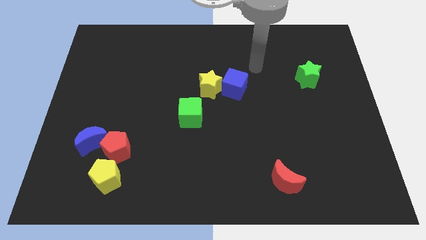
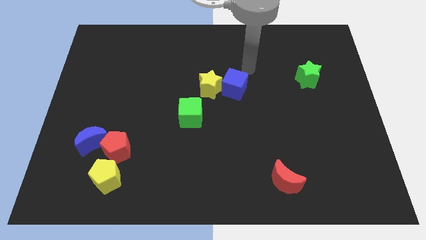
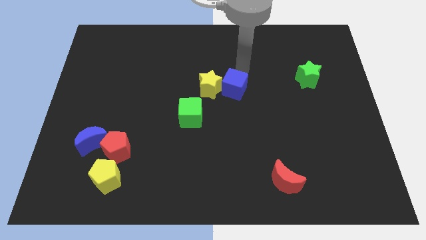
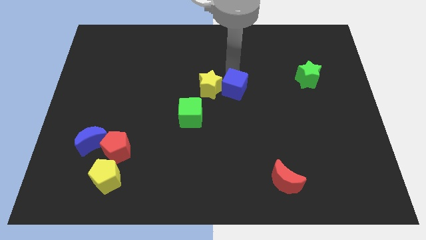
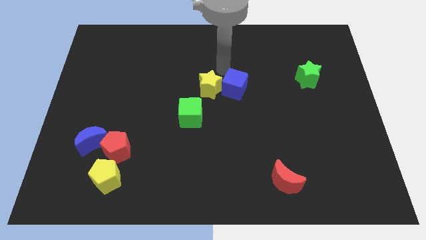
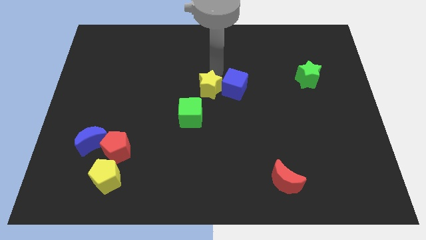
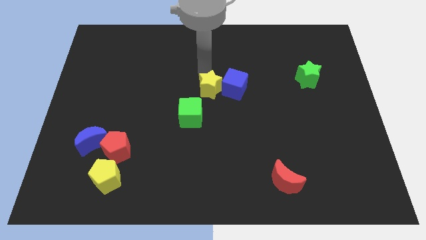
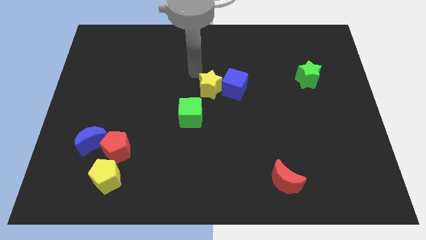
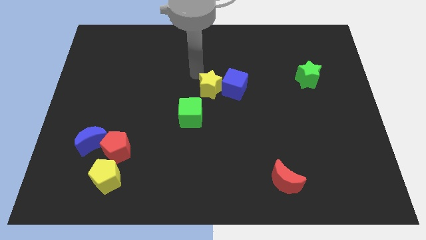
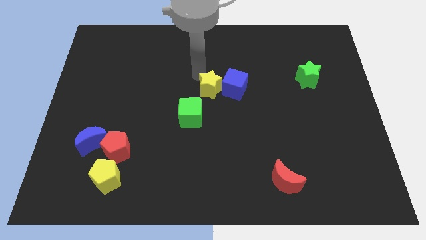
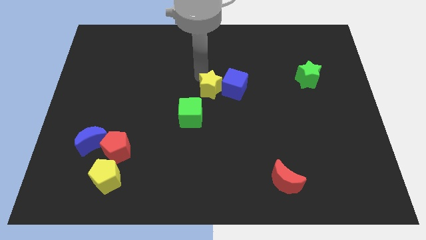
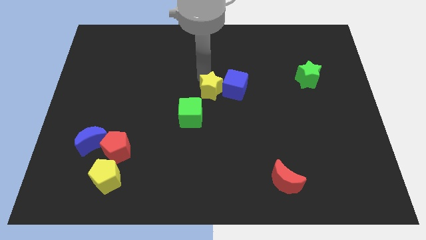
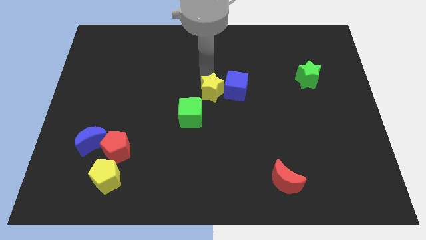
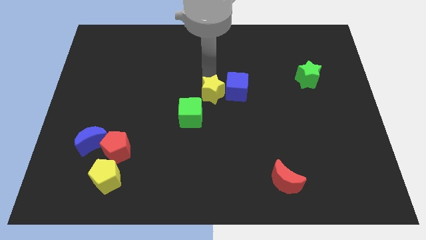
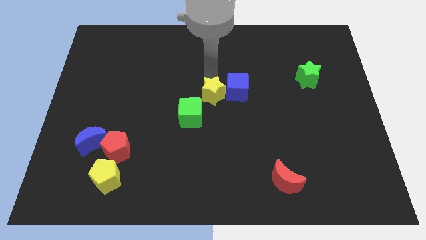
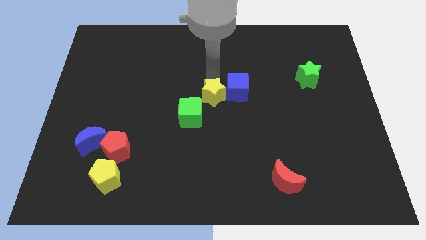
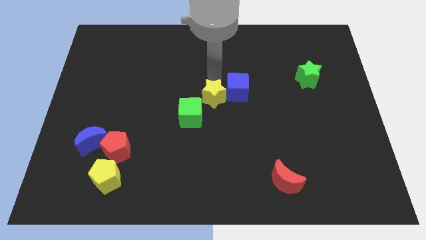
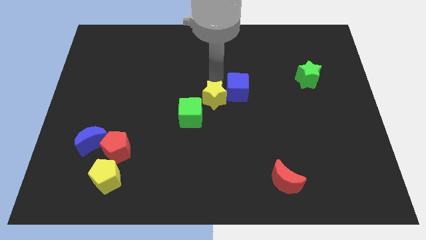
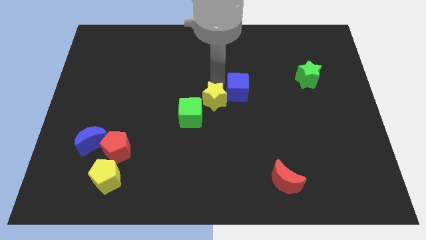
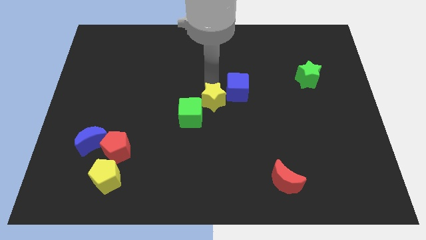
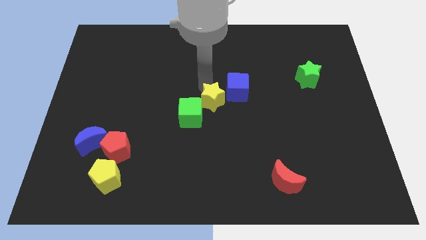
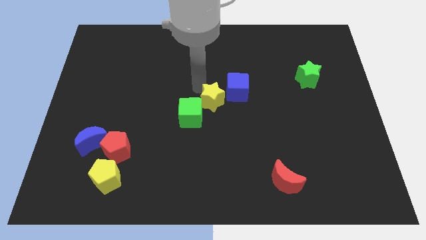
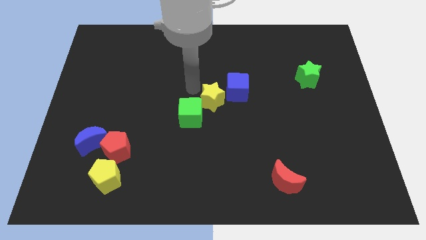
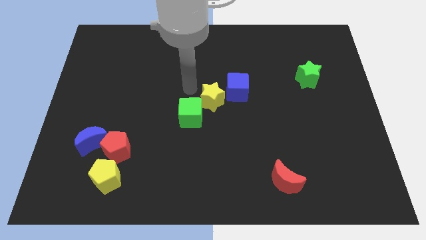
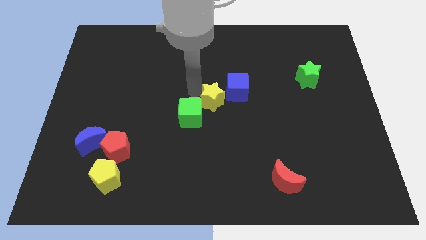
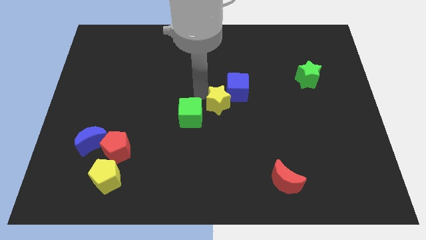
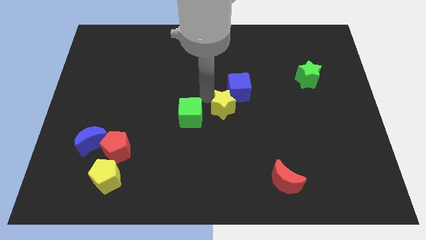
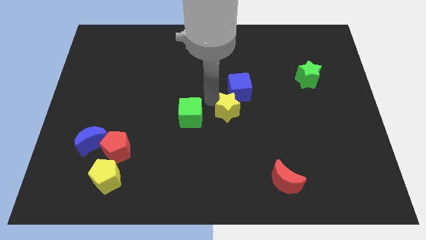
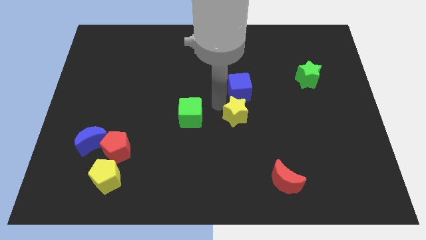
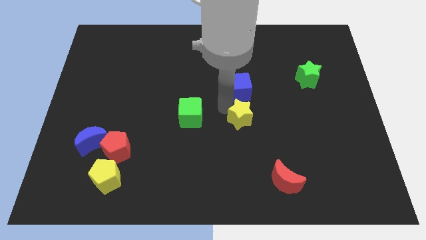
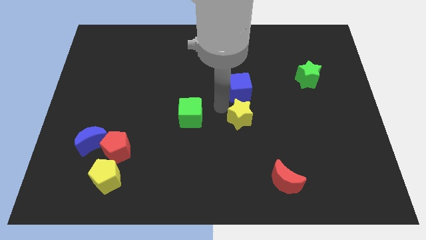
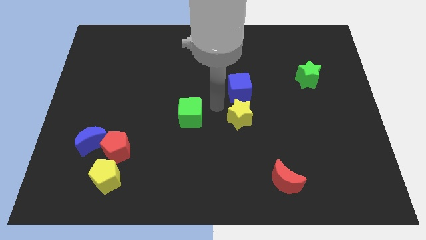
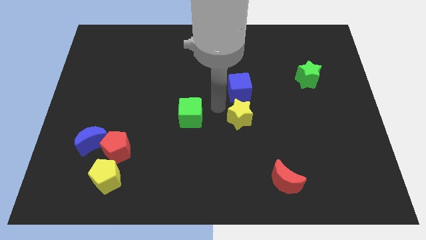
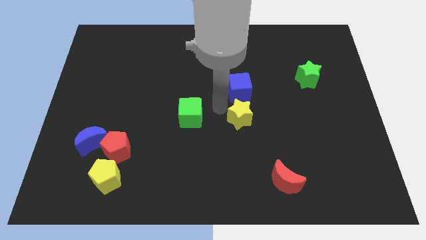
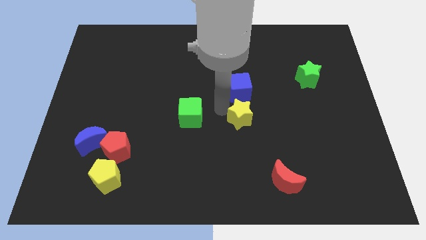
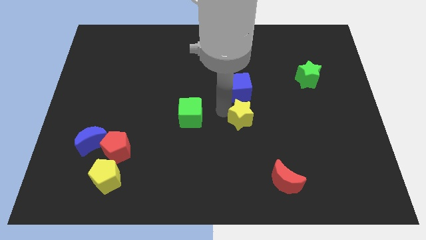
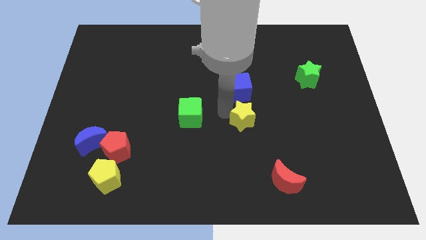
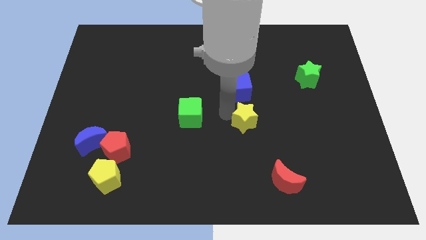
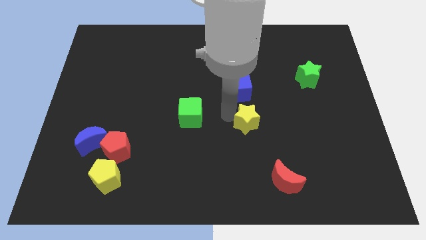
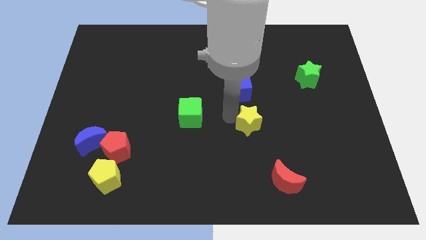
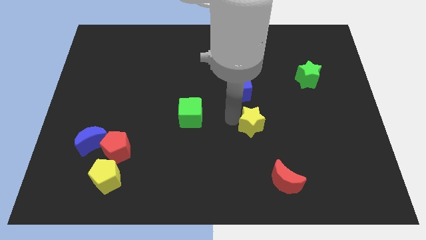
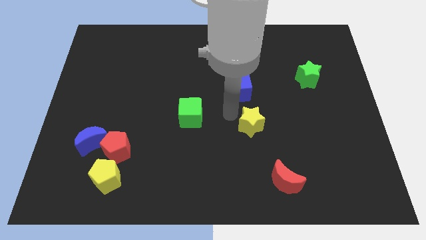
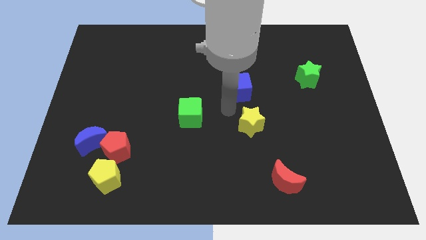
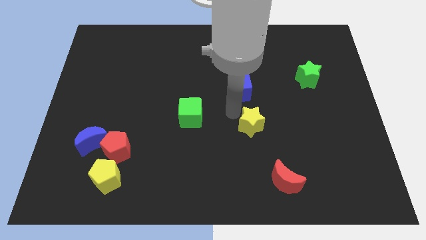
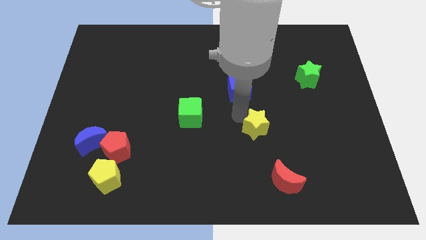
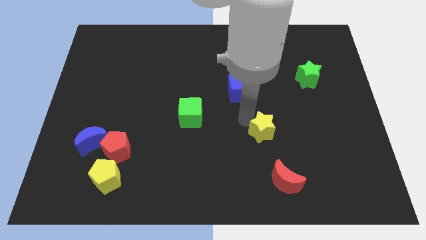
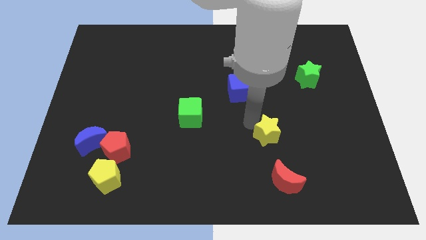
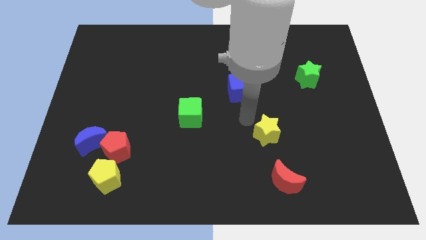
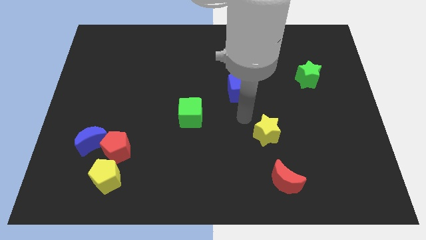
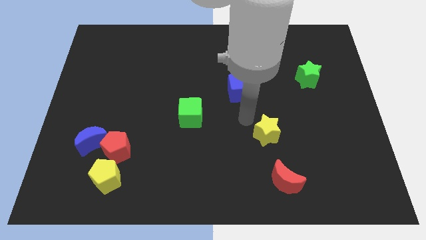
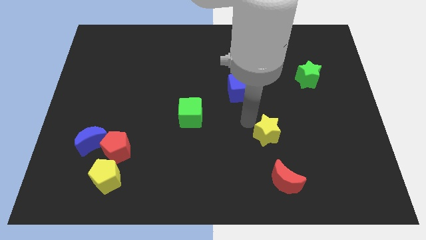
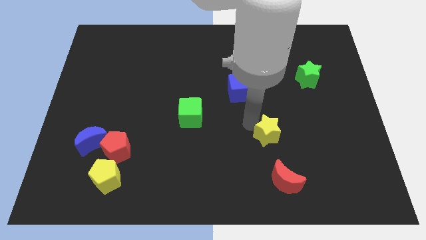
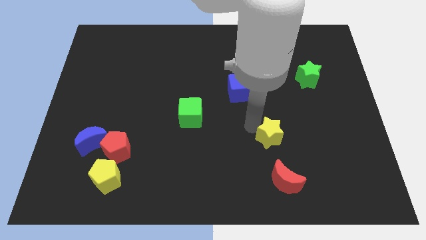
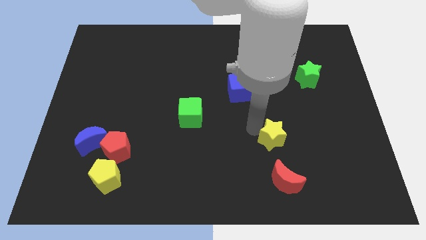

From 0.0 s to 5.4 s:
slide the yellow star diagonally down and right

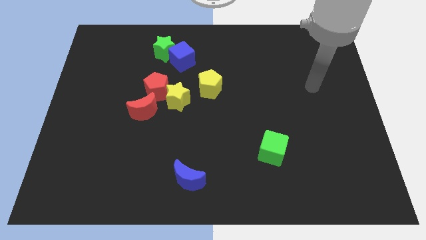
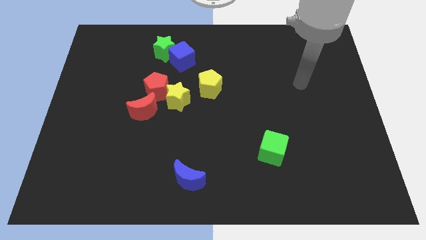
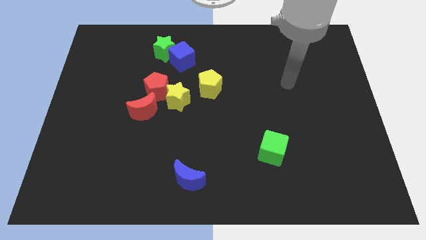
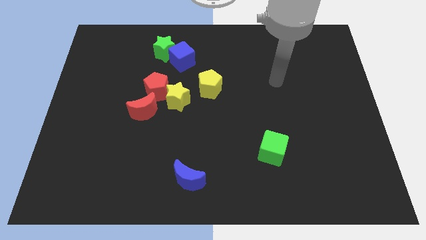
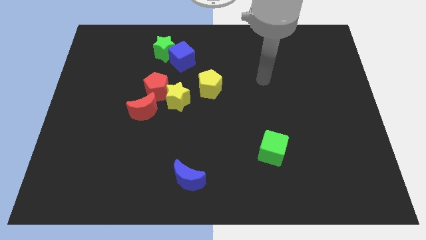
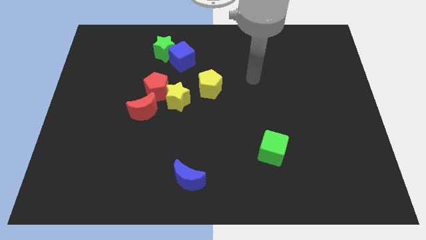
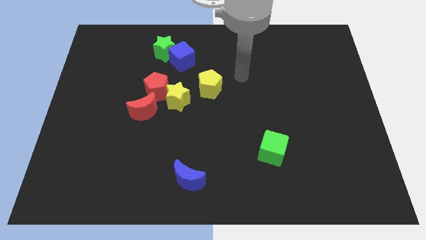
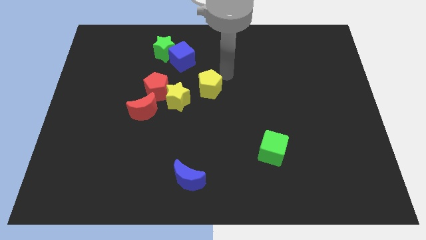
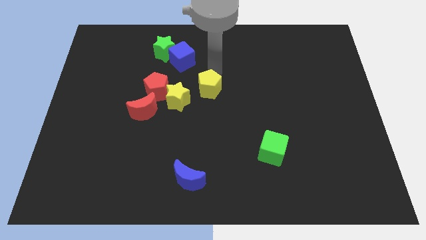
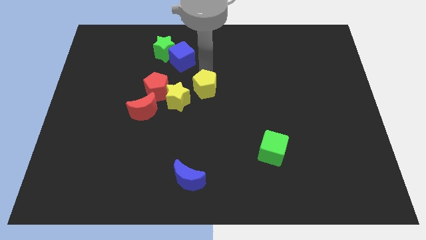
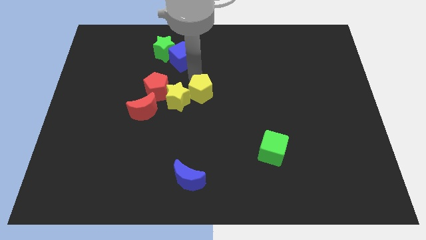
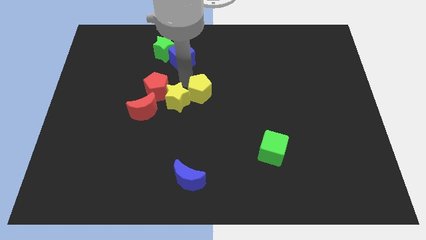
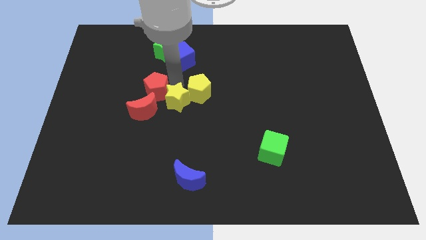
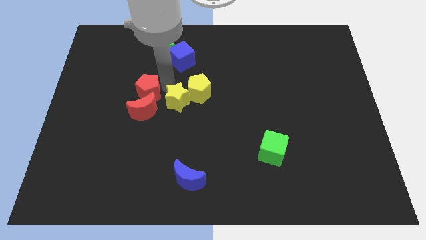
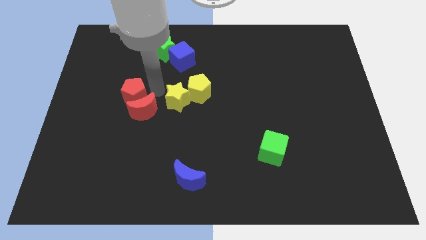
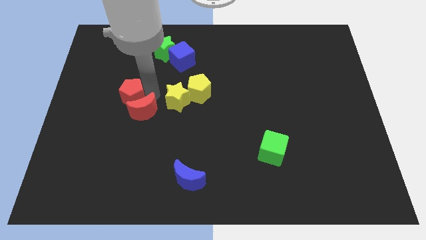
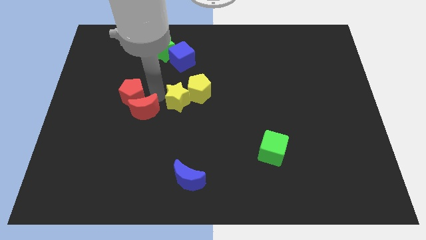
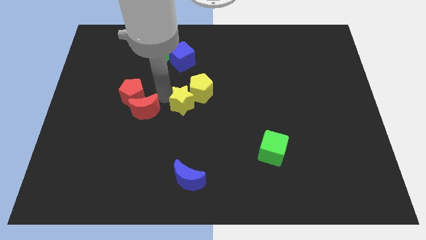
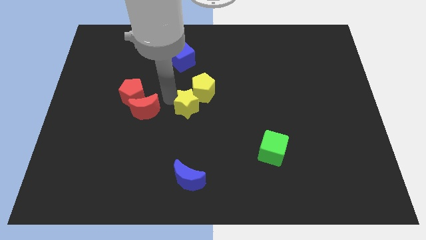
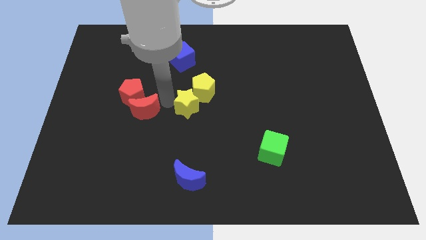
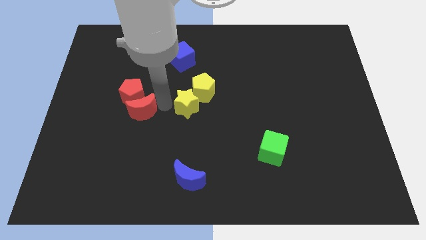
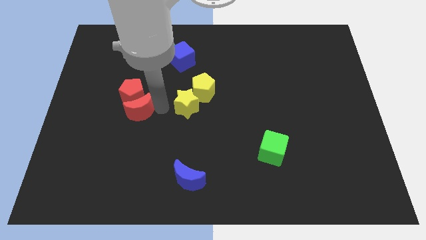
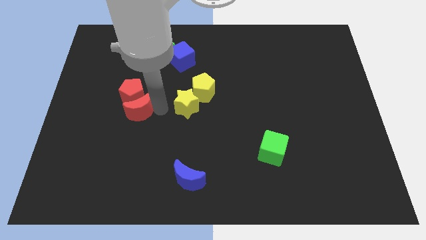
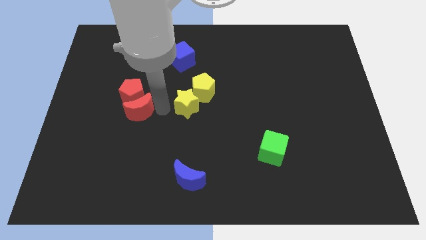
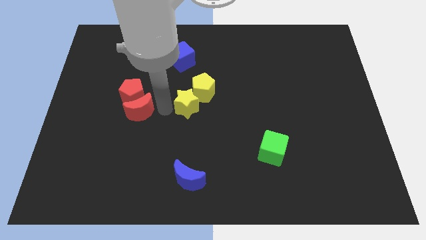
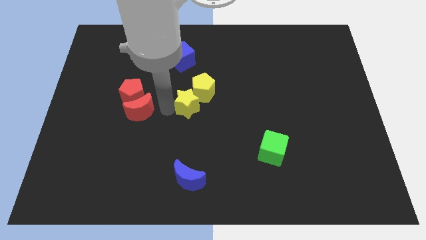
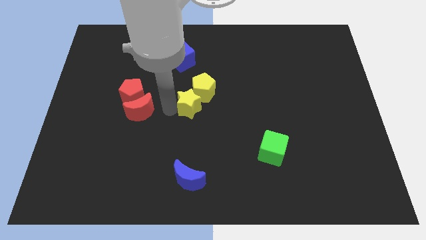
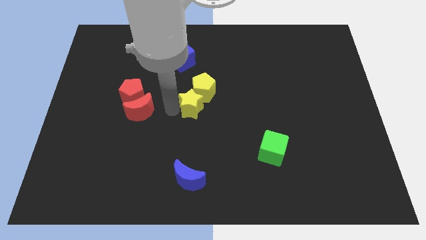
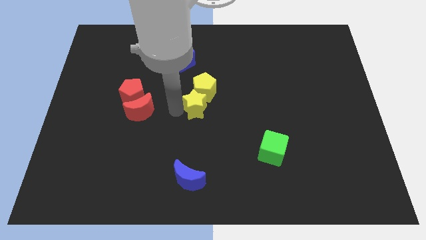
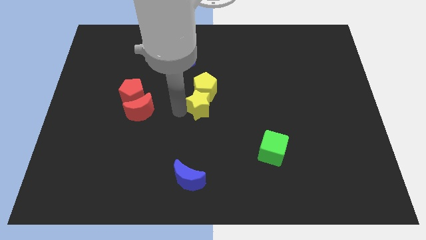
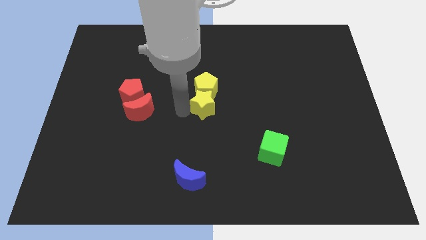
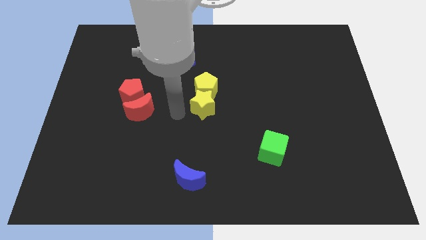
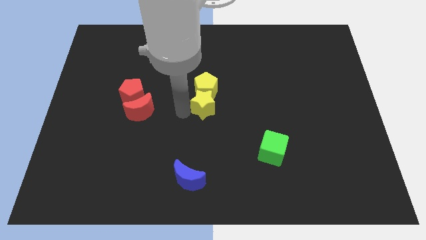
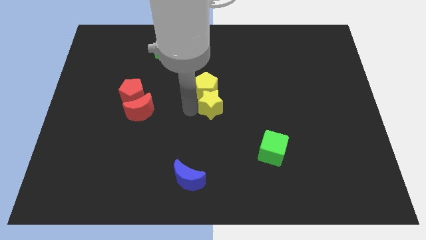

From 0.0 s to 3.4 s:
slightly move the yellow star to the right
